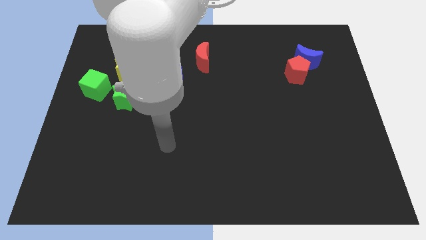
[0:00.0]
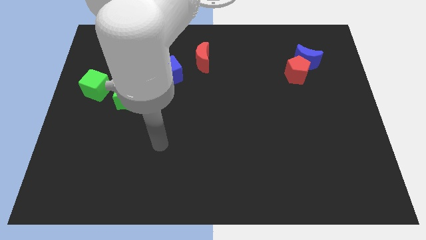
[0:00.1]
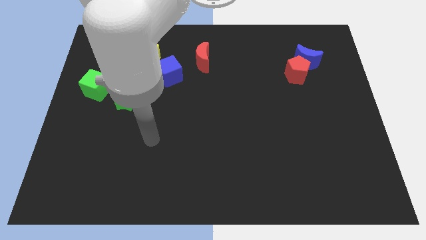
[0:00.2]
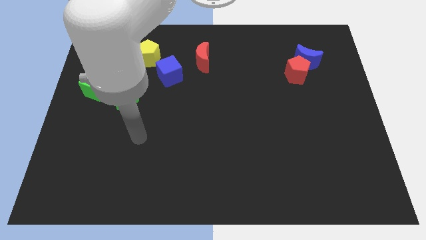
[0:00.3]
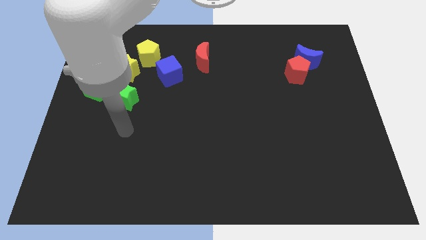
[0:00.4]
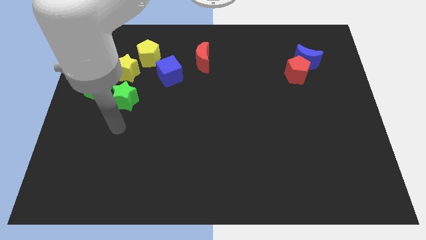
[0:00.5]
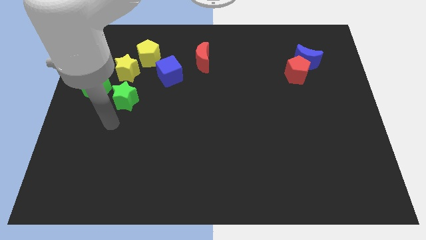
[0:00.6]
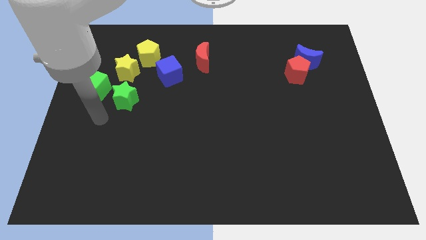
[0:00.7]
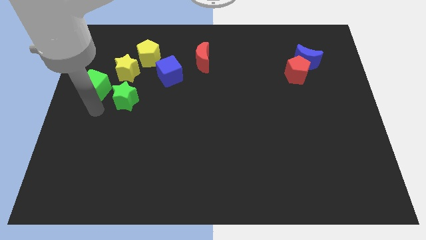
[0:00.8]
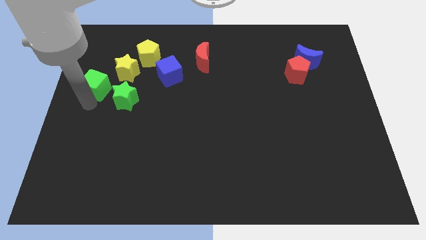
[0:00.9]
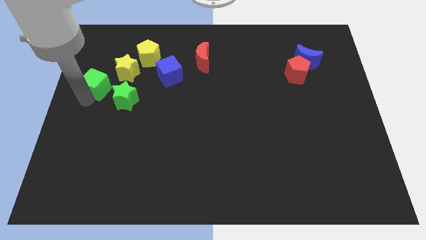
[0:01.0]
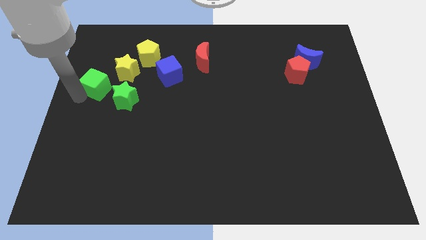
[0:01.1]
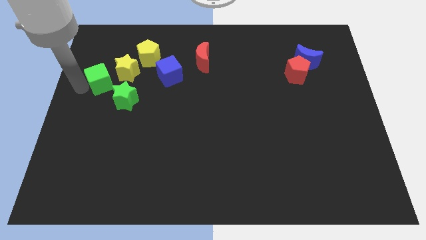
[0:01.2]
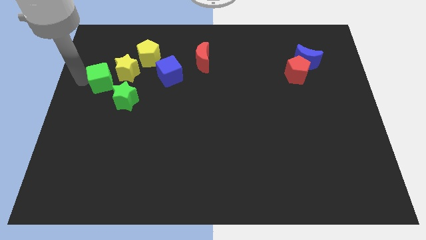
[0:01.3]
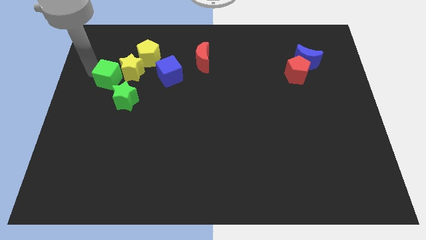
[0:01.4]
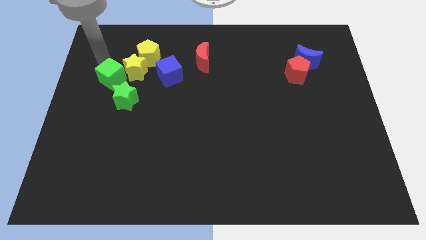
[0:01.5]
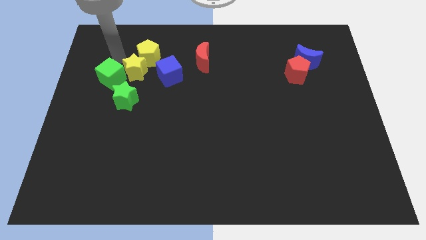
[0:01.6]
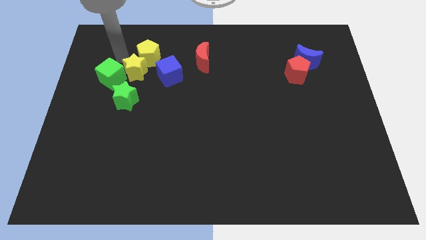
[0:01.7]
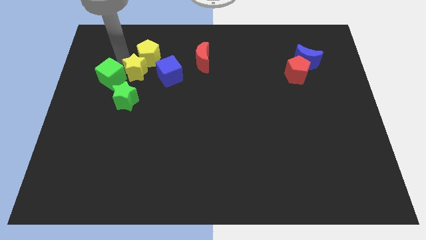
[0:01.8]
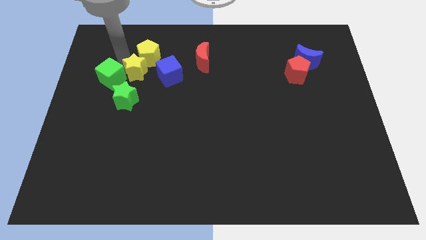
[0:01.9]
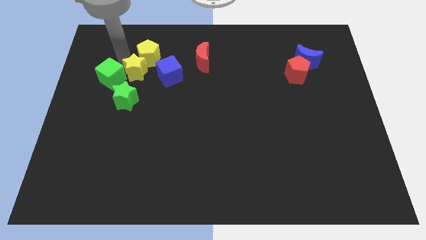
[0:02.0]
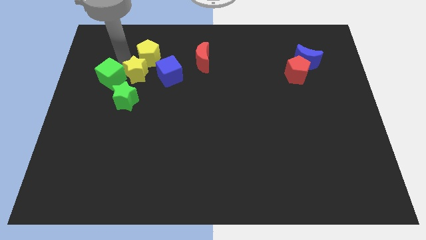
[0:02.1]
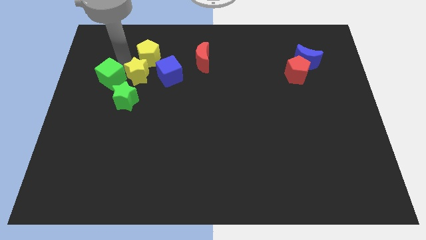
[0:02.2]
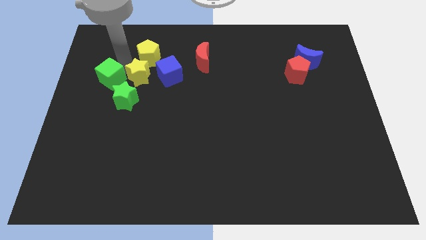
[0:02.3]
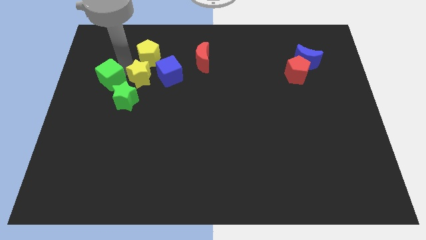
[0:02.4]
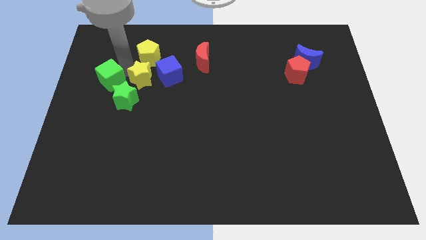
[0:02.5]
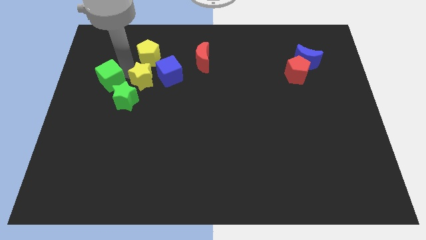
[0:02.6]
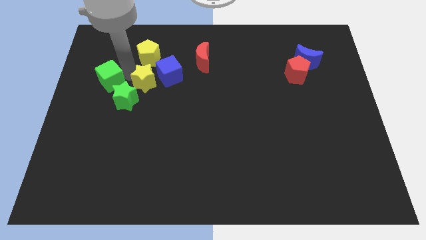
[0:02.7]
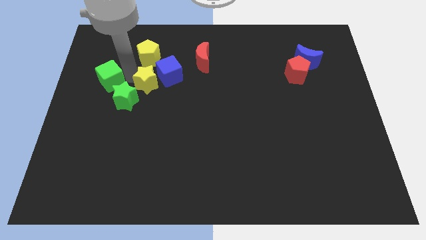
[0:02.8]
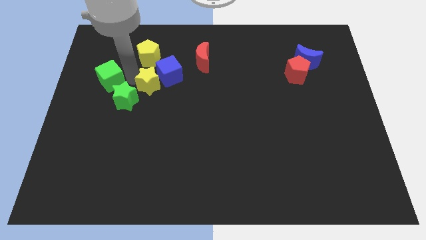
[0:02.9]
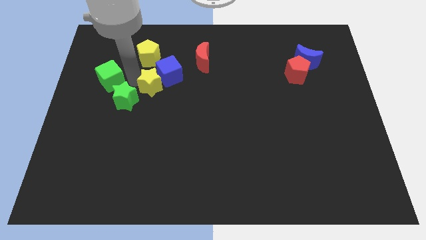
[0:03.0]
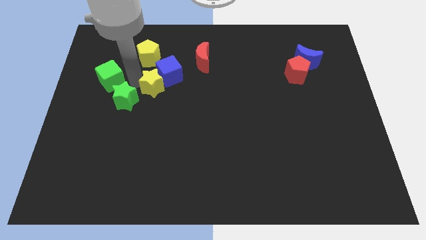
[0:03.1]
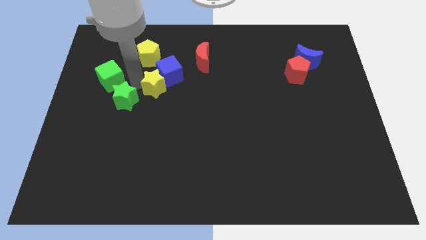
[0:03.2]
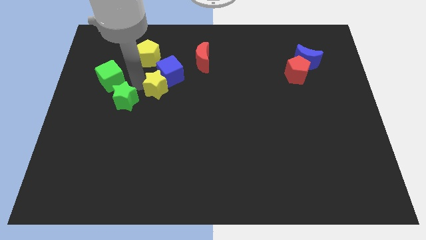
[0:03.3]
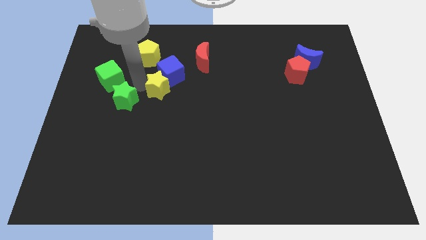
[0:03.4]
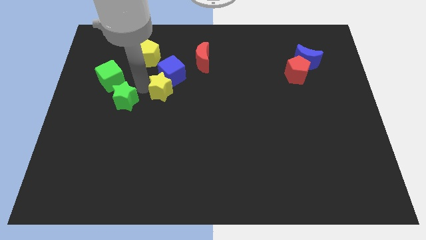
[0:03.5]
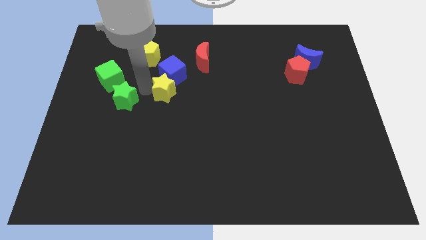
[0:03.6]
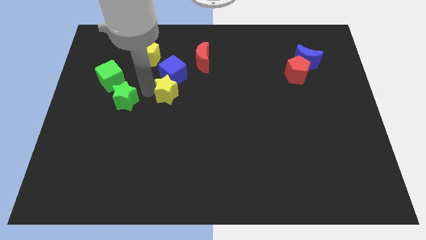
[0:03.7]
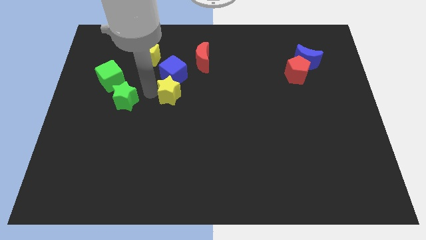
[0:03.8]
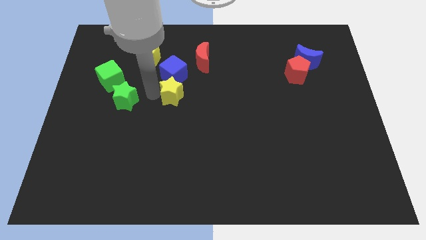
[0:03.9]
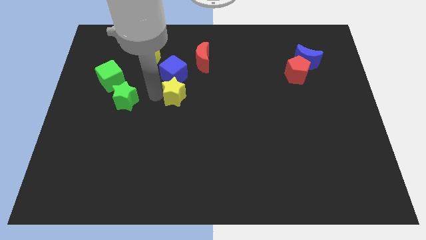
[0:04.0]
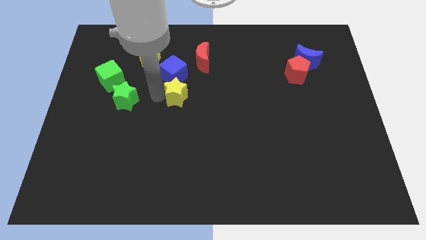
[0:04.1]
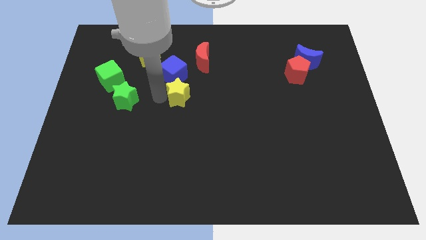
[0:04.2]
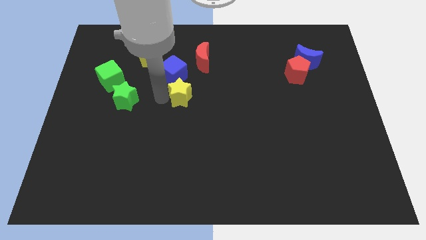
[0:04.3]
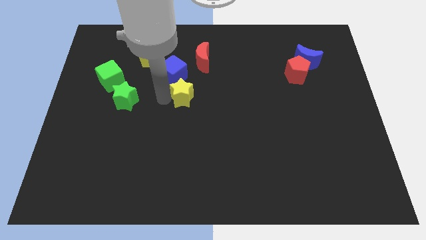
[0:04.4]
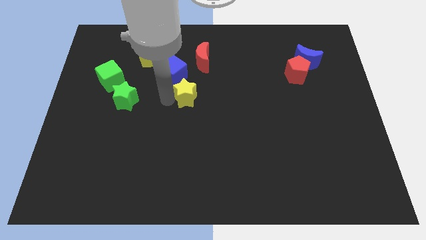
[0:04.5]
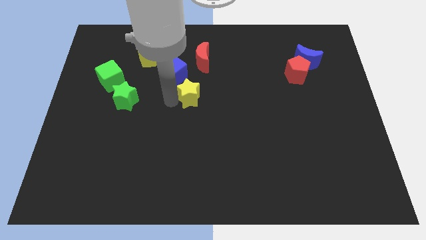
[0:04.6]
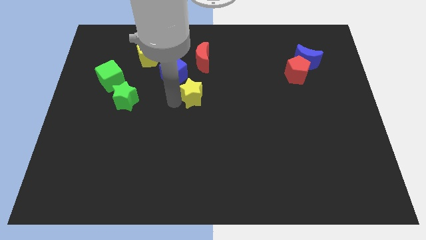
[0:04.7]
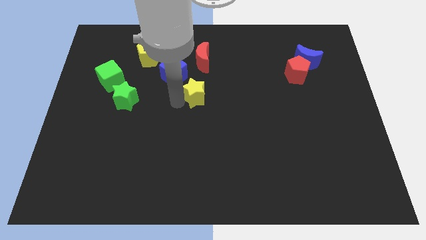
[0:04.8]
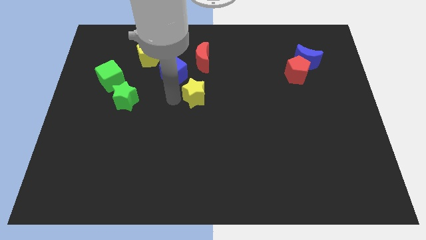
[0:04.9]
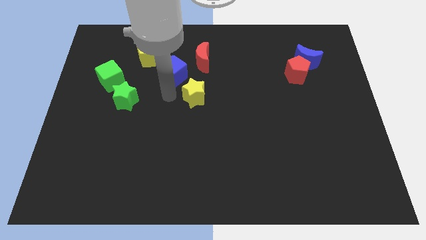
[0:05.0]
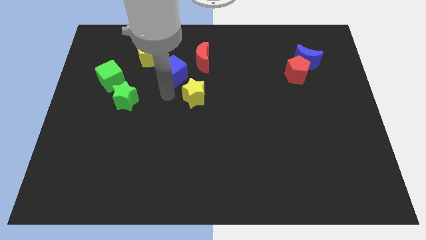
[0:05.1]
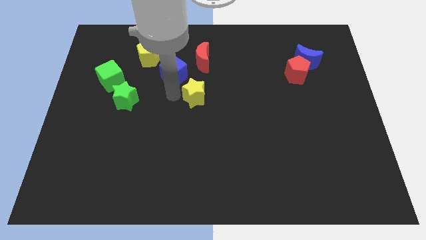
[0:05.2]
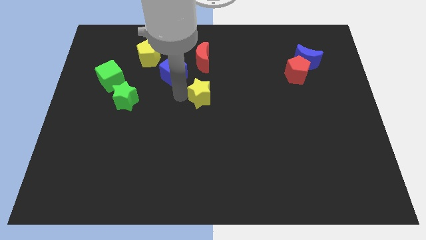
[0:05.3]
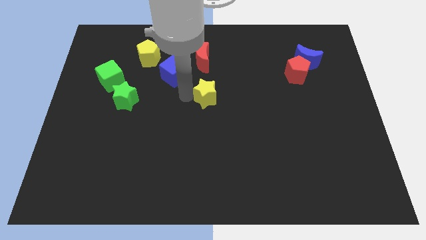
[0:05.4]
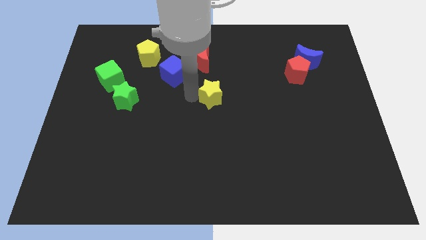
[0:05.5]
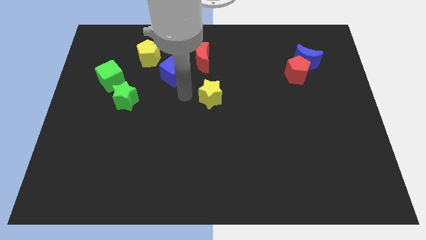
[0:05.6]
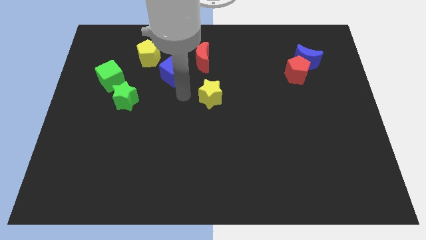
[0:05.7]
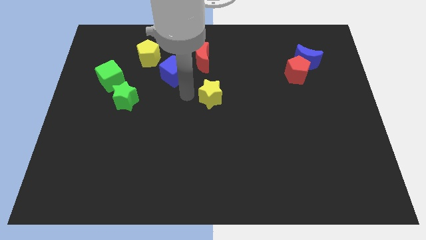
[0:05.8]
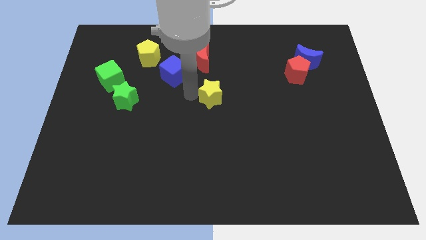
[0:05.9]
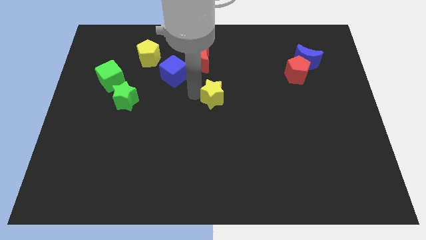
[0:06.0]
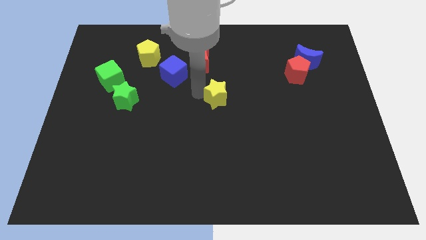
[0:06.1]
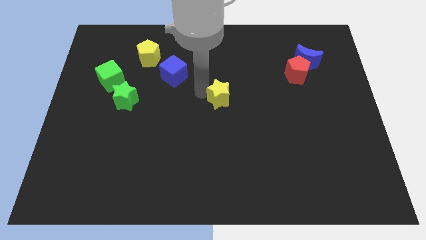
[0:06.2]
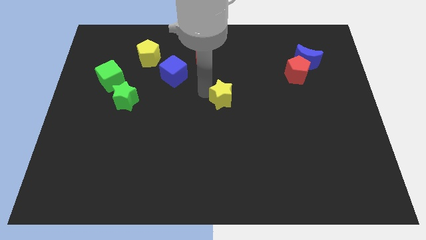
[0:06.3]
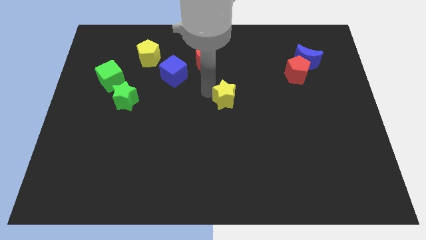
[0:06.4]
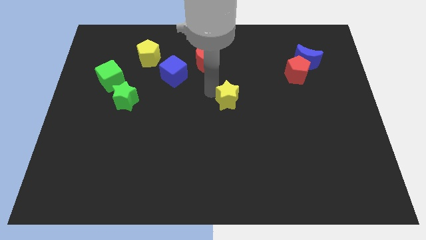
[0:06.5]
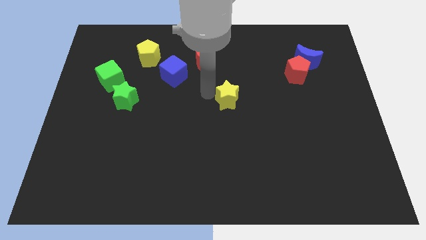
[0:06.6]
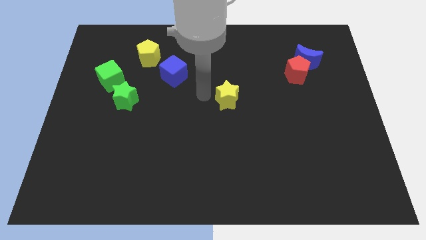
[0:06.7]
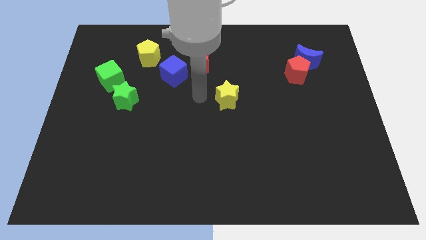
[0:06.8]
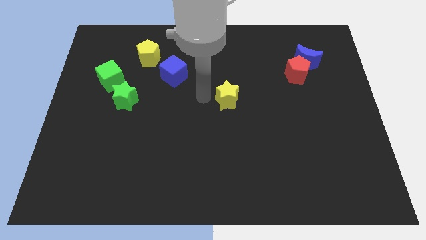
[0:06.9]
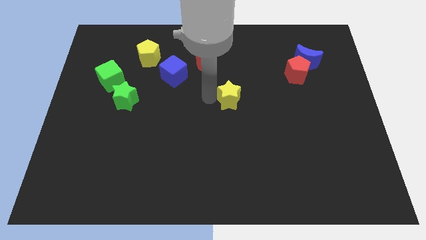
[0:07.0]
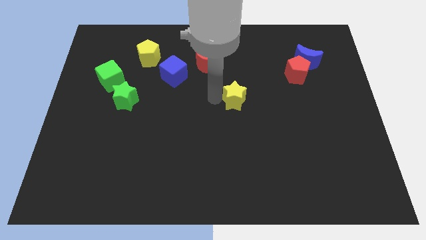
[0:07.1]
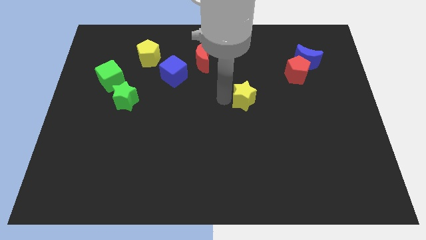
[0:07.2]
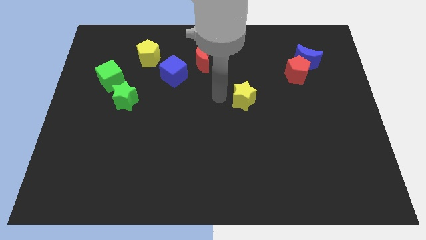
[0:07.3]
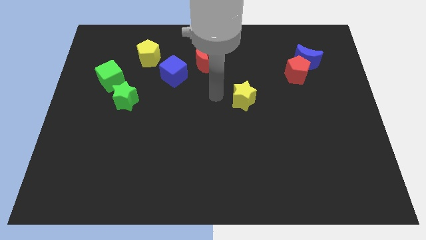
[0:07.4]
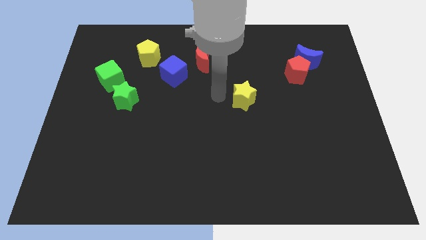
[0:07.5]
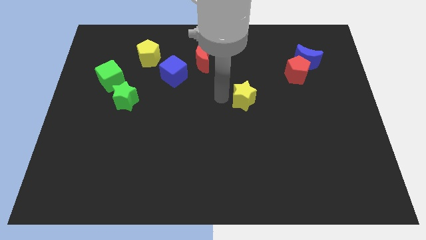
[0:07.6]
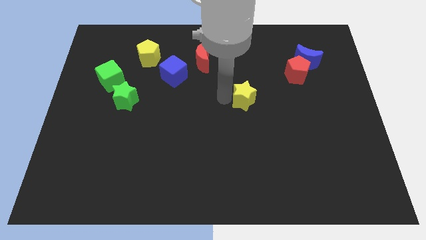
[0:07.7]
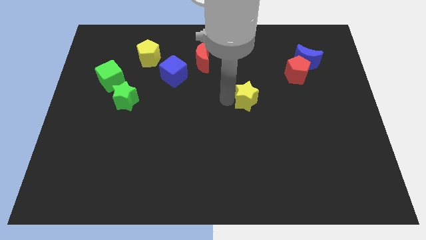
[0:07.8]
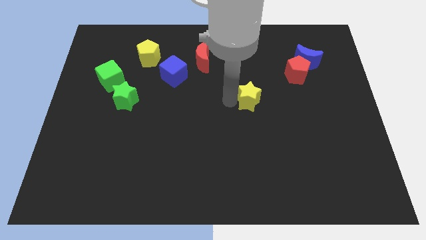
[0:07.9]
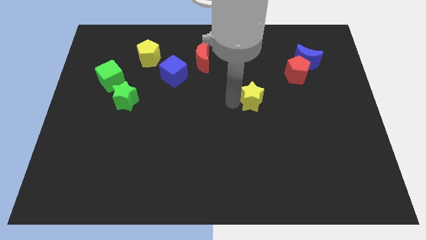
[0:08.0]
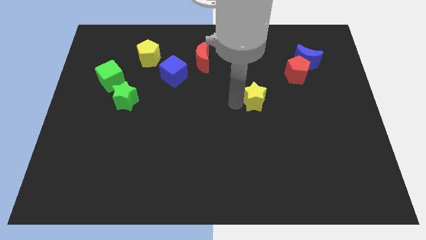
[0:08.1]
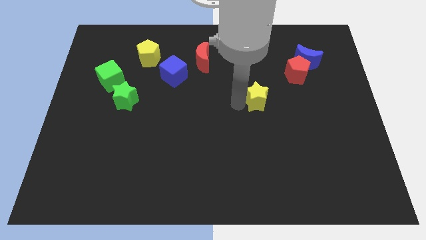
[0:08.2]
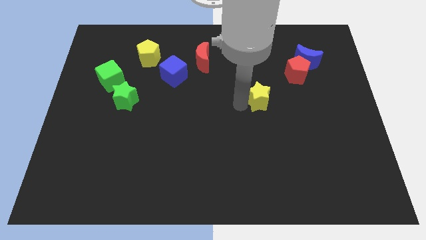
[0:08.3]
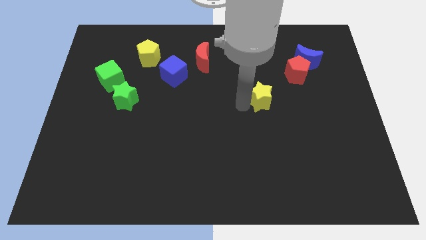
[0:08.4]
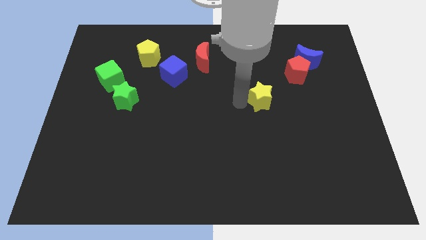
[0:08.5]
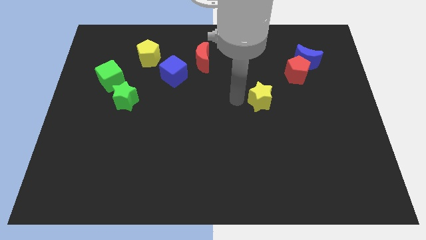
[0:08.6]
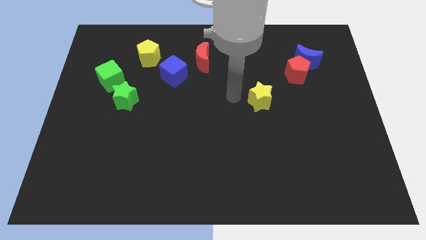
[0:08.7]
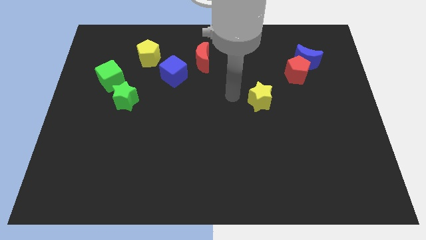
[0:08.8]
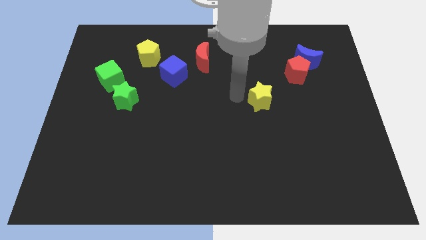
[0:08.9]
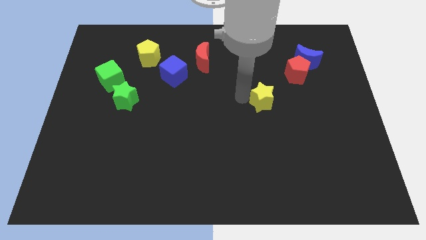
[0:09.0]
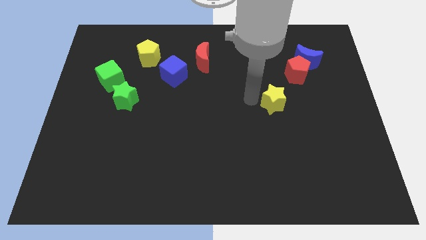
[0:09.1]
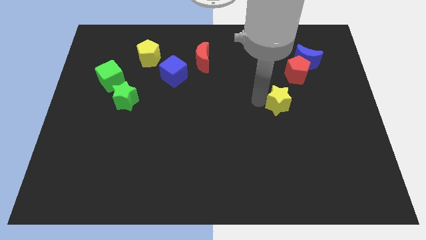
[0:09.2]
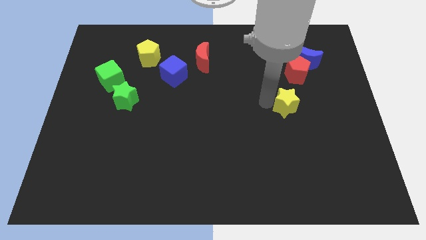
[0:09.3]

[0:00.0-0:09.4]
push the yellow star to the bottom side of the red pentagon
